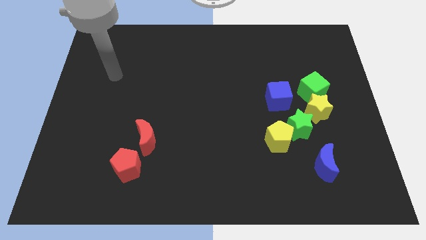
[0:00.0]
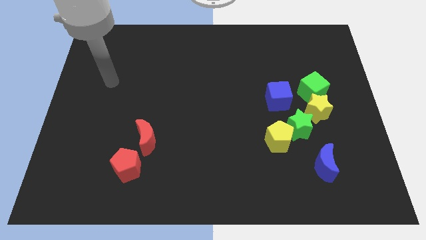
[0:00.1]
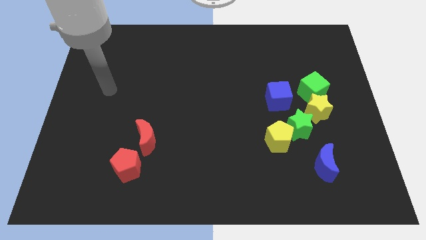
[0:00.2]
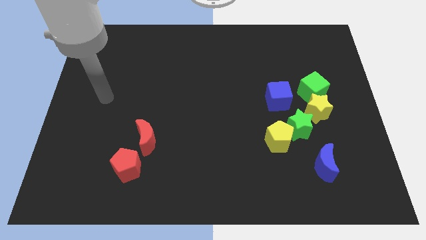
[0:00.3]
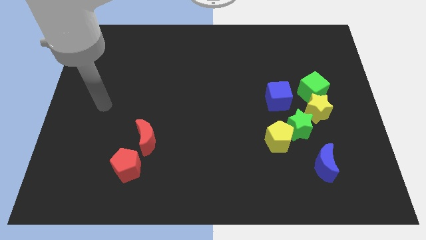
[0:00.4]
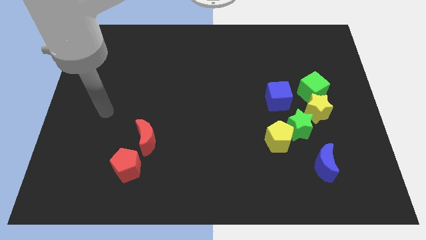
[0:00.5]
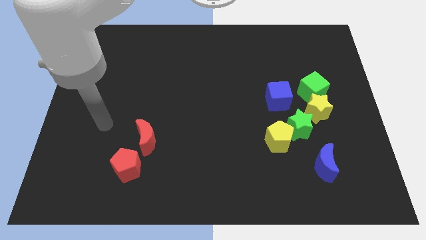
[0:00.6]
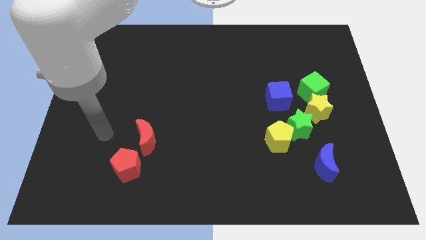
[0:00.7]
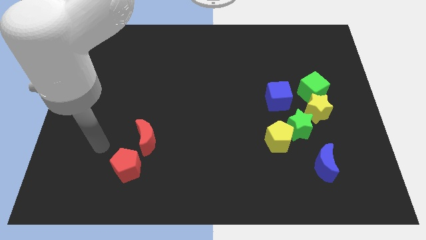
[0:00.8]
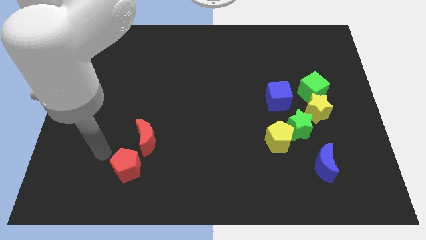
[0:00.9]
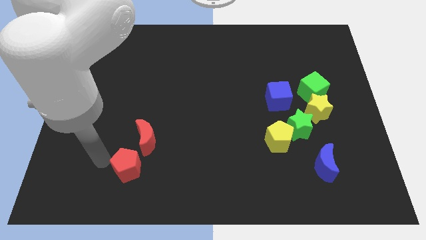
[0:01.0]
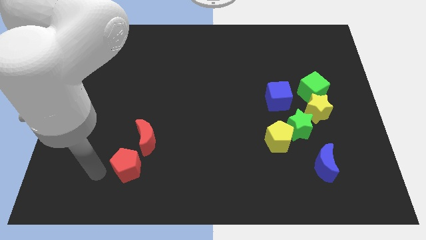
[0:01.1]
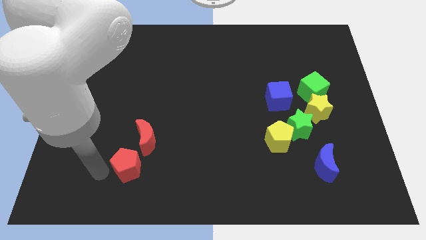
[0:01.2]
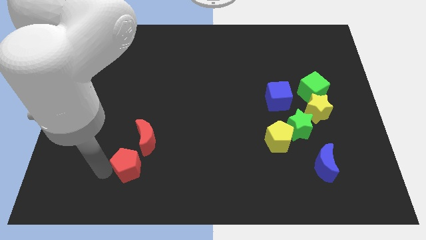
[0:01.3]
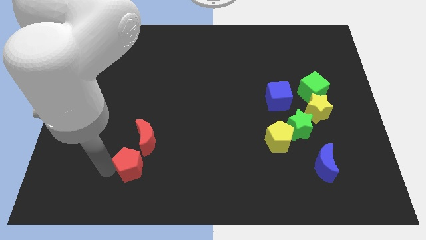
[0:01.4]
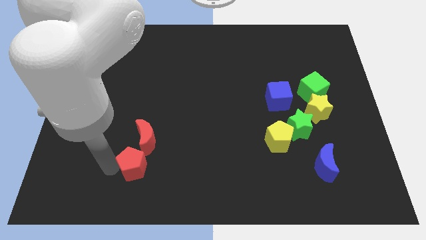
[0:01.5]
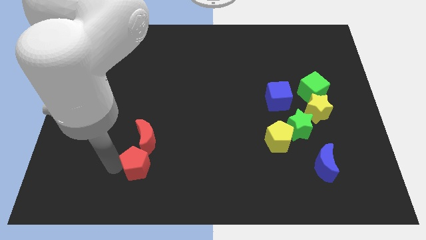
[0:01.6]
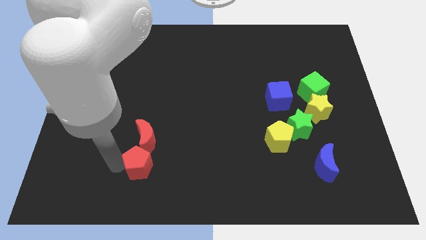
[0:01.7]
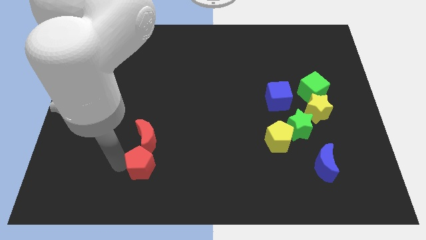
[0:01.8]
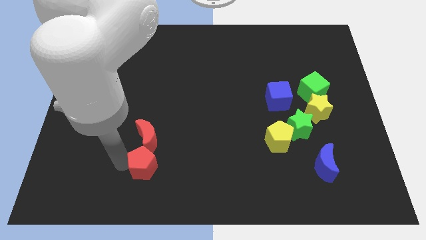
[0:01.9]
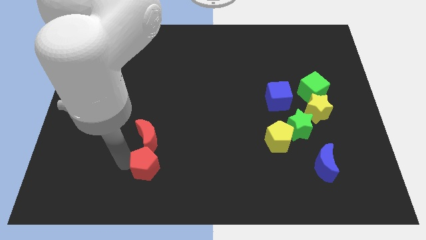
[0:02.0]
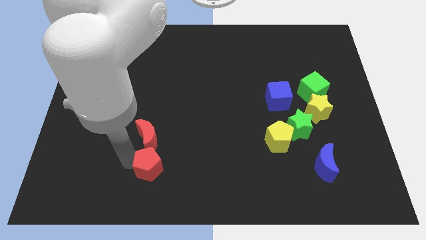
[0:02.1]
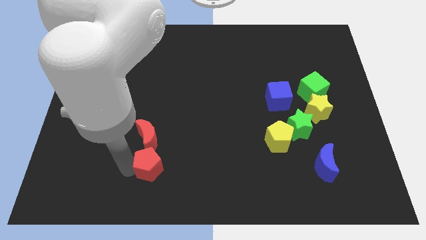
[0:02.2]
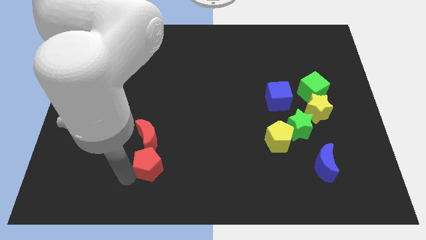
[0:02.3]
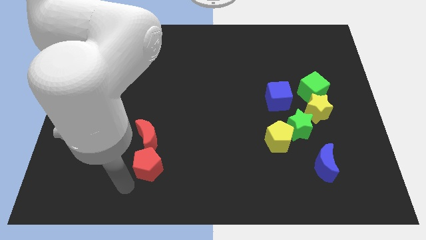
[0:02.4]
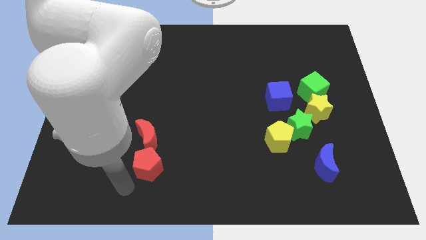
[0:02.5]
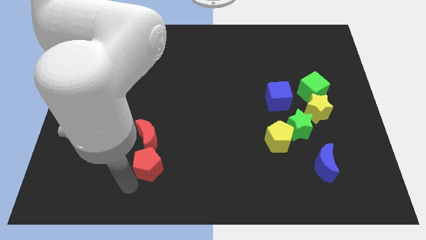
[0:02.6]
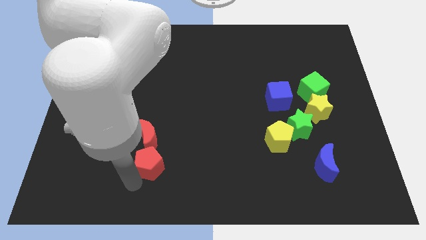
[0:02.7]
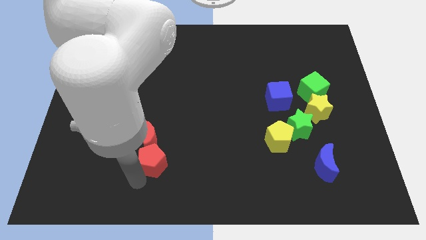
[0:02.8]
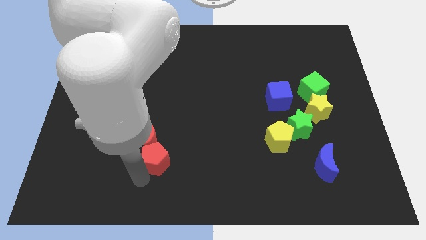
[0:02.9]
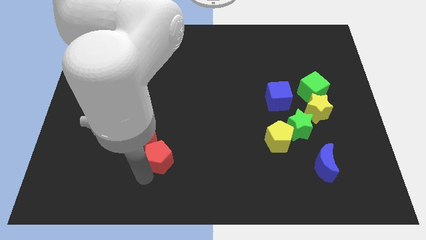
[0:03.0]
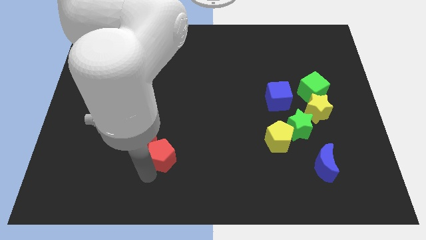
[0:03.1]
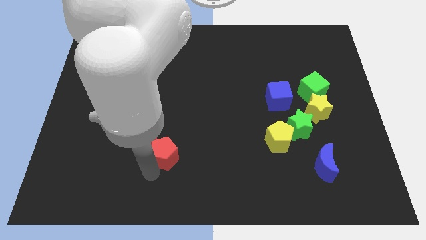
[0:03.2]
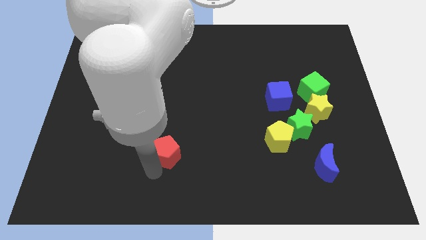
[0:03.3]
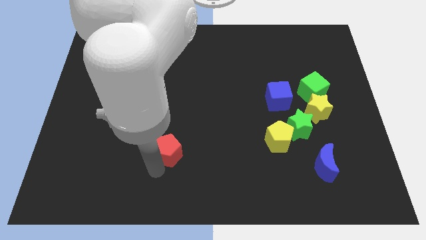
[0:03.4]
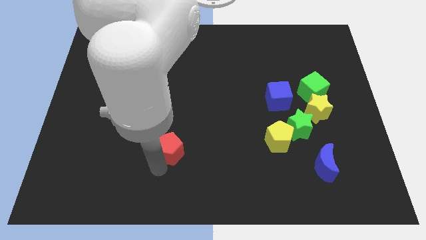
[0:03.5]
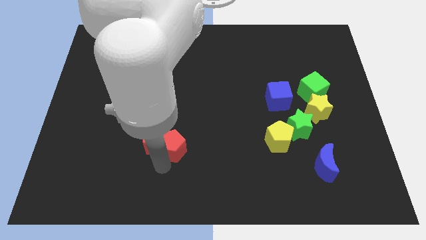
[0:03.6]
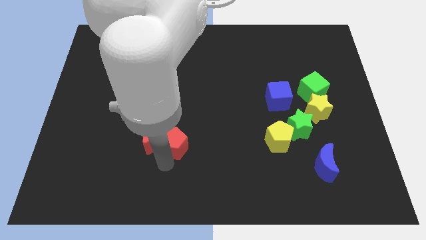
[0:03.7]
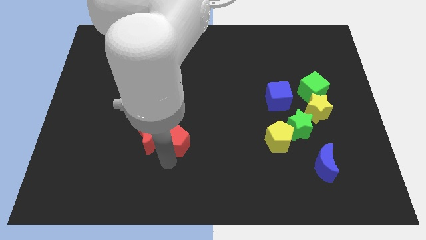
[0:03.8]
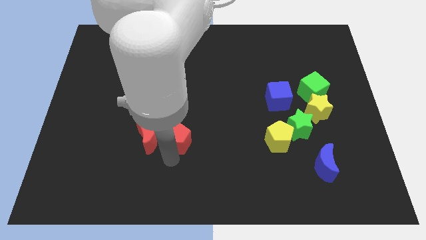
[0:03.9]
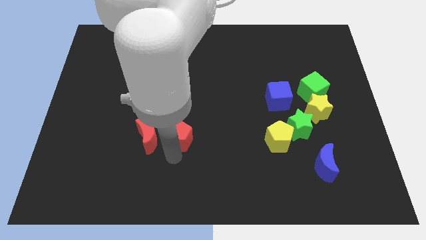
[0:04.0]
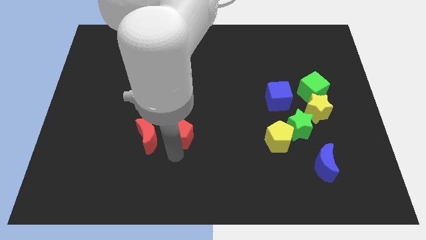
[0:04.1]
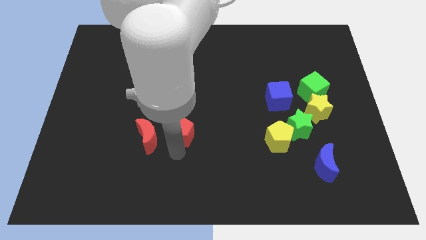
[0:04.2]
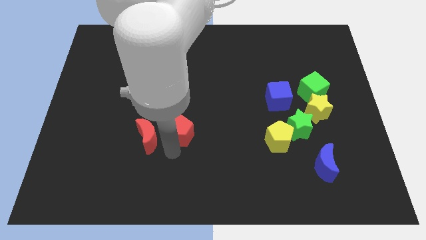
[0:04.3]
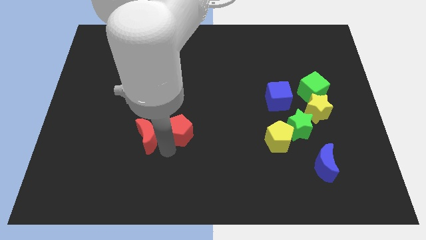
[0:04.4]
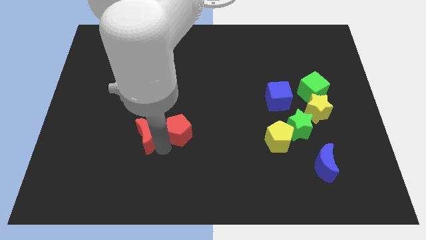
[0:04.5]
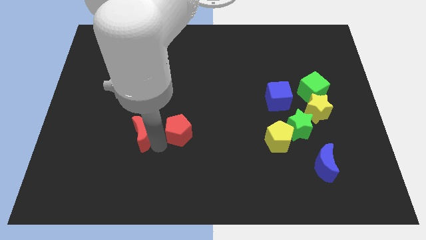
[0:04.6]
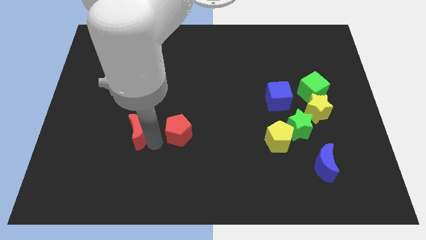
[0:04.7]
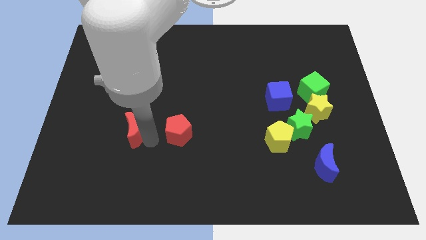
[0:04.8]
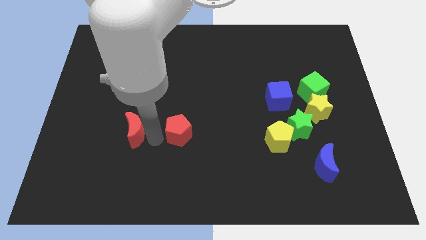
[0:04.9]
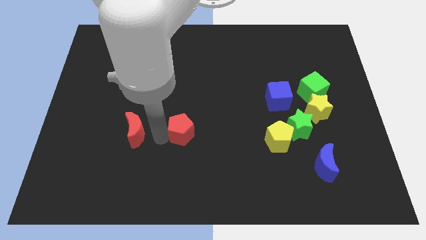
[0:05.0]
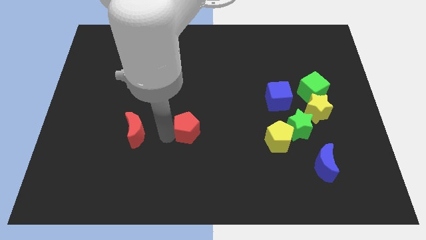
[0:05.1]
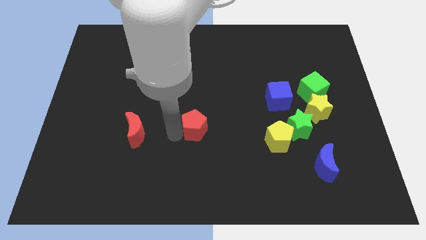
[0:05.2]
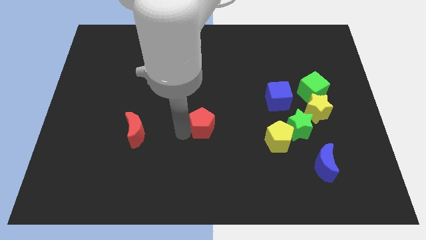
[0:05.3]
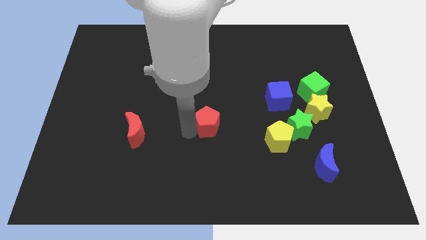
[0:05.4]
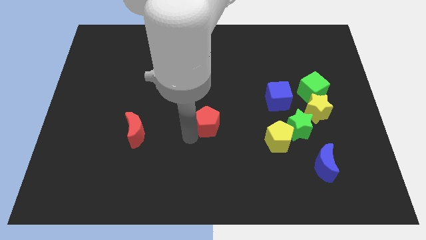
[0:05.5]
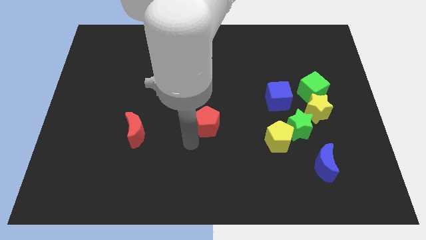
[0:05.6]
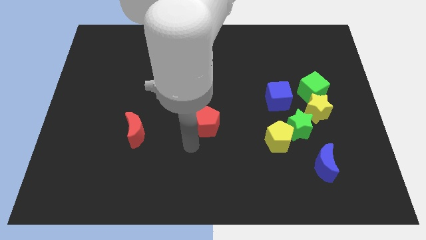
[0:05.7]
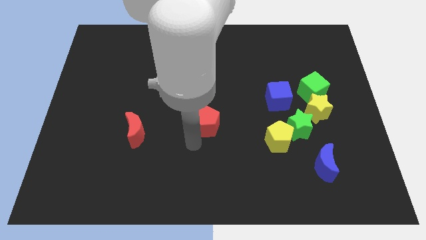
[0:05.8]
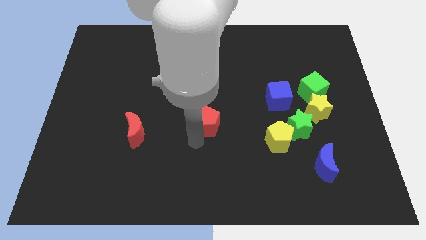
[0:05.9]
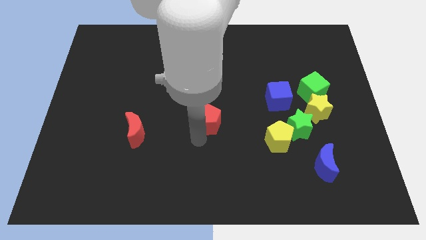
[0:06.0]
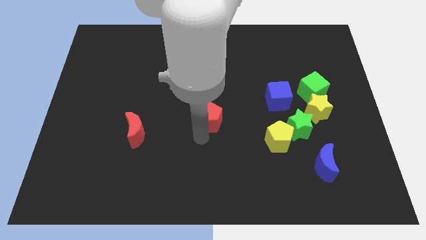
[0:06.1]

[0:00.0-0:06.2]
move the red pentagon diagonally upwards and to the right

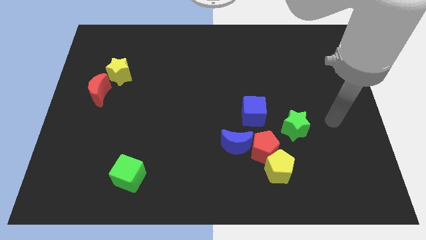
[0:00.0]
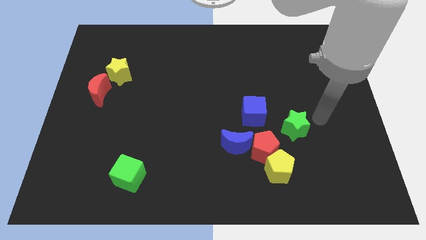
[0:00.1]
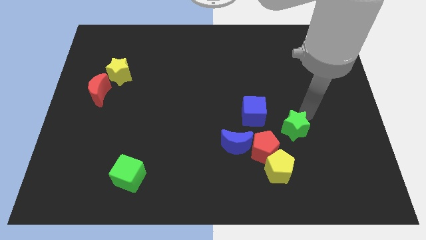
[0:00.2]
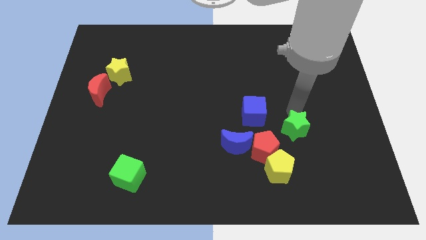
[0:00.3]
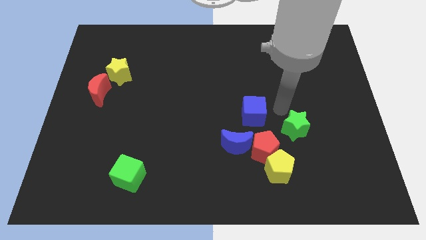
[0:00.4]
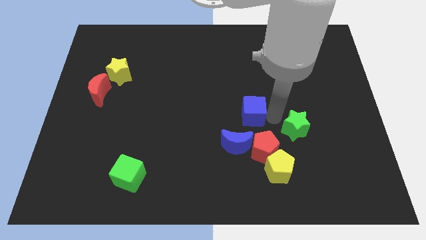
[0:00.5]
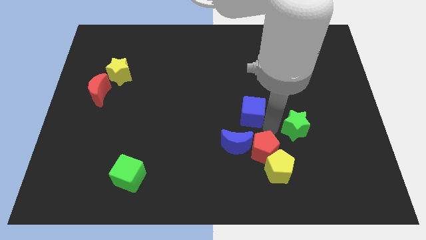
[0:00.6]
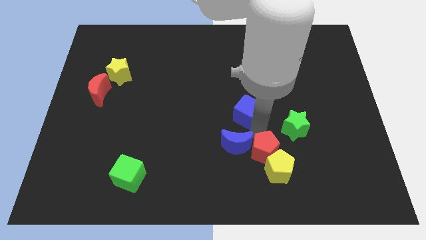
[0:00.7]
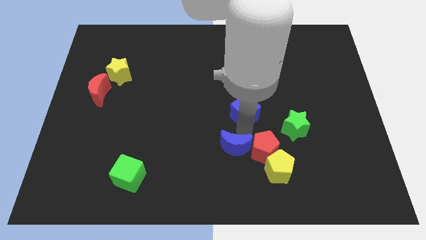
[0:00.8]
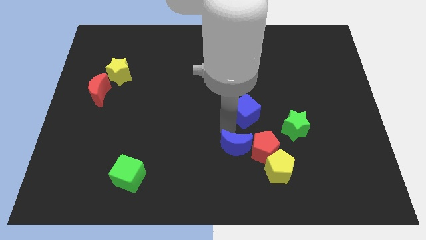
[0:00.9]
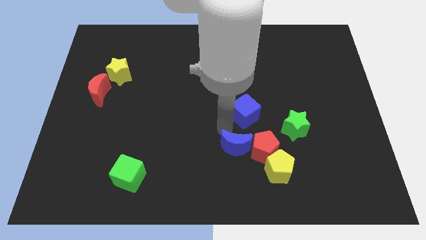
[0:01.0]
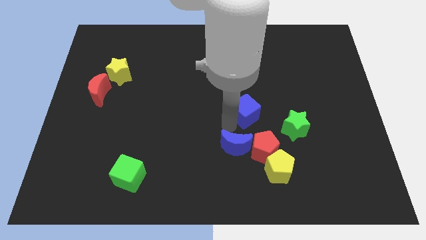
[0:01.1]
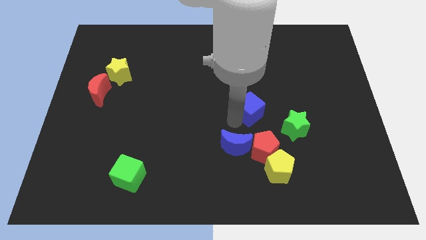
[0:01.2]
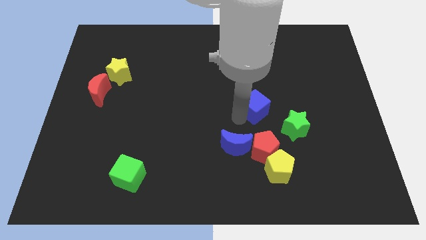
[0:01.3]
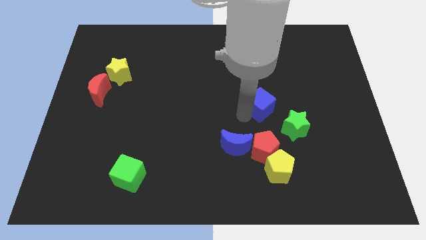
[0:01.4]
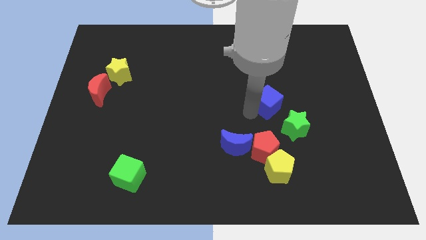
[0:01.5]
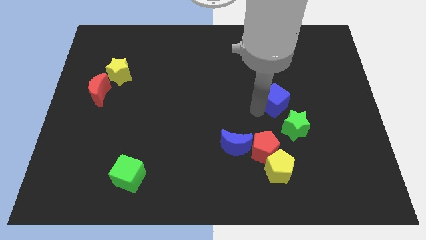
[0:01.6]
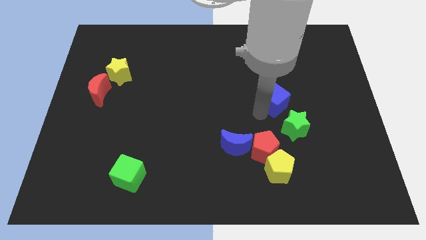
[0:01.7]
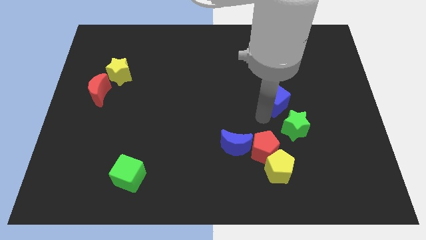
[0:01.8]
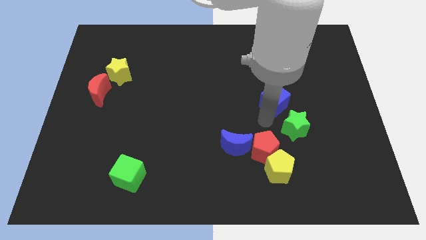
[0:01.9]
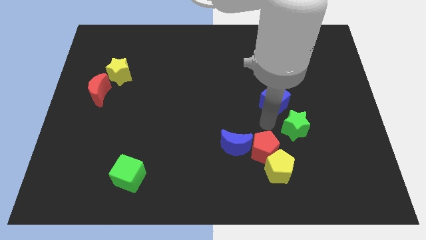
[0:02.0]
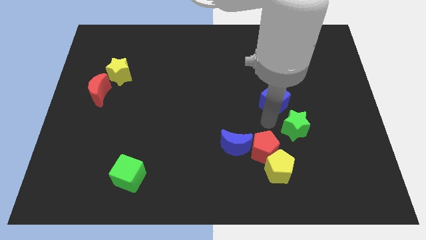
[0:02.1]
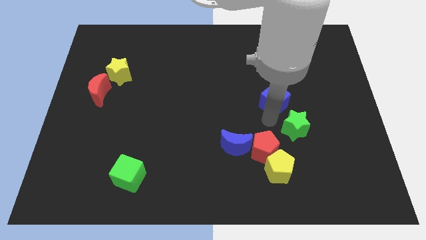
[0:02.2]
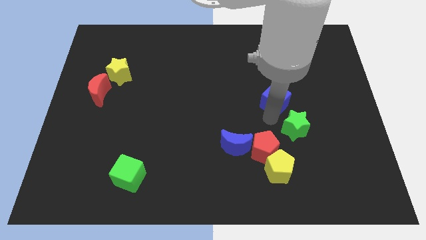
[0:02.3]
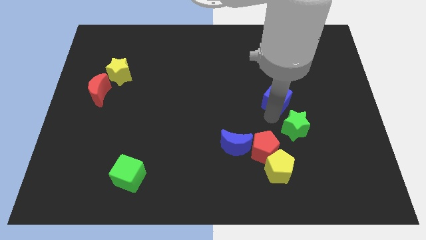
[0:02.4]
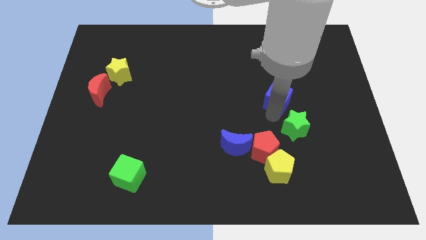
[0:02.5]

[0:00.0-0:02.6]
slide the blue cube slightly upwards and to the right
